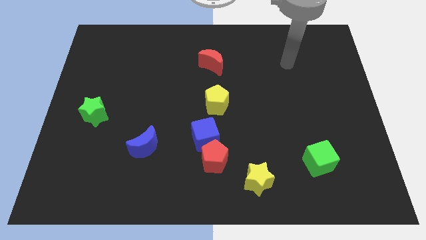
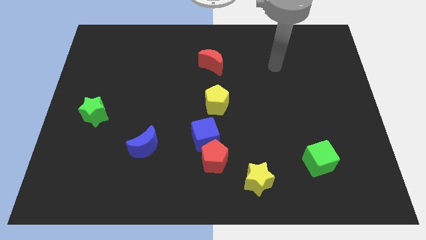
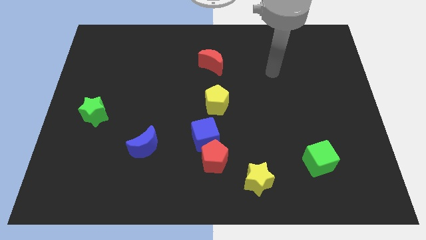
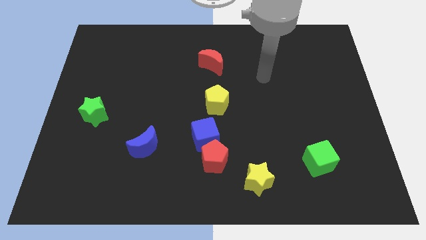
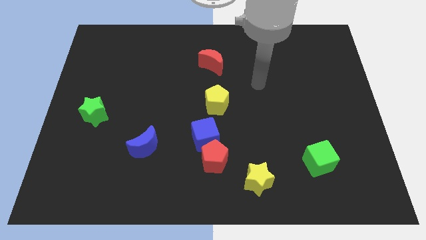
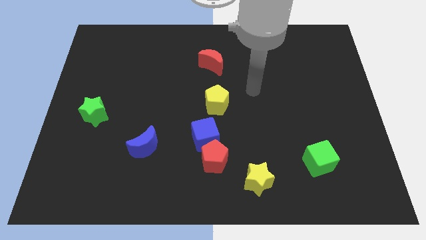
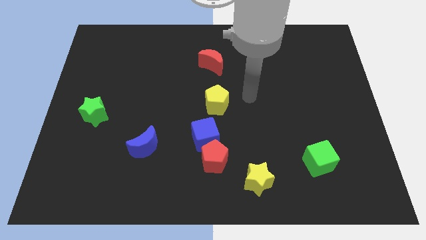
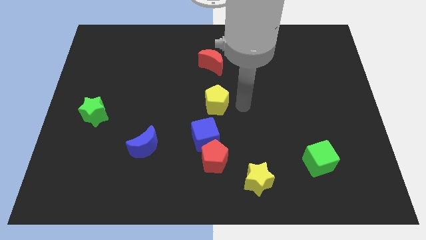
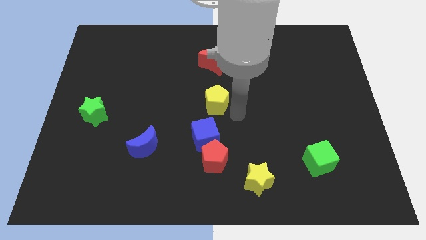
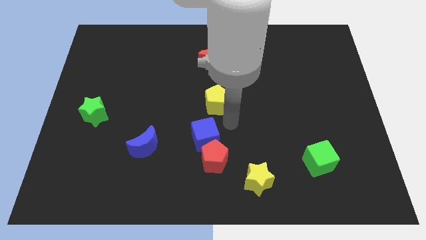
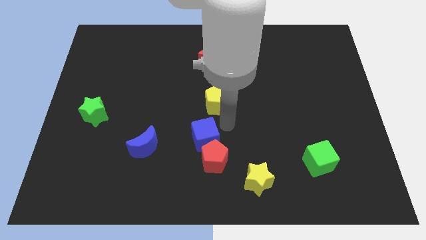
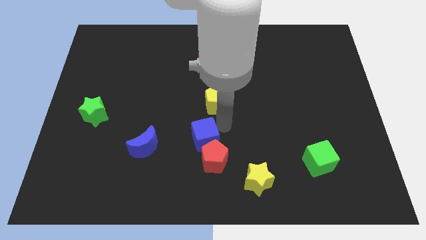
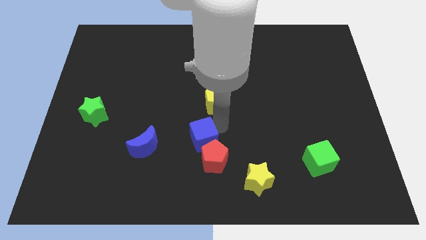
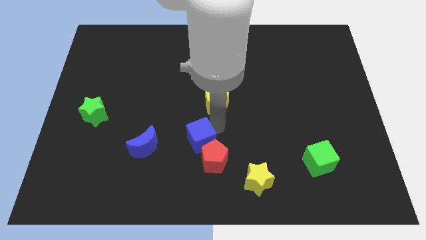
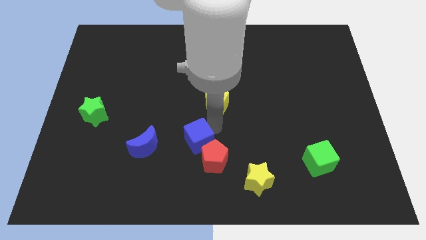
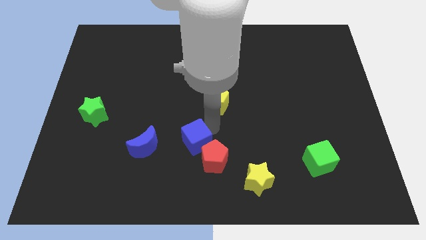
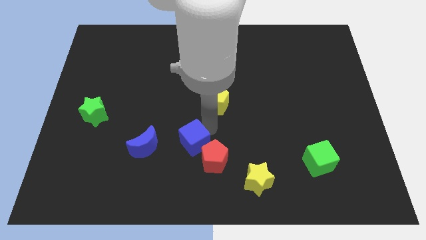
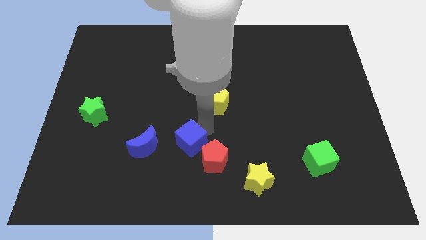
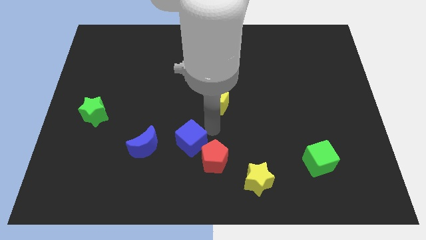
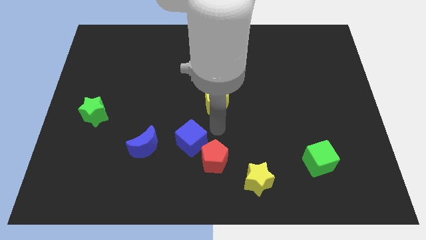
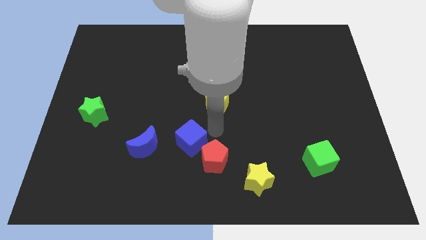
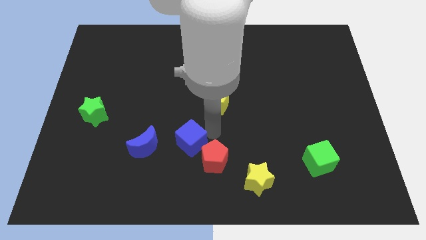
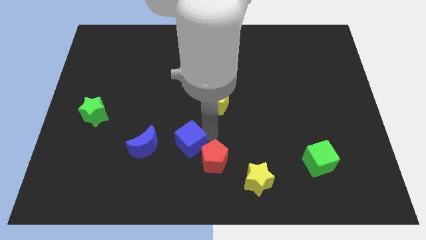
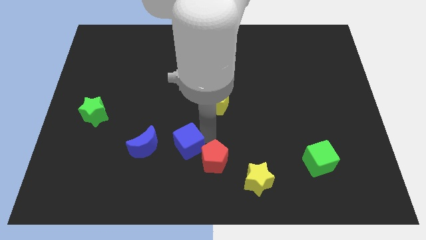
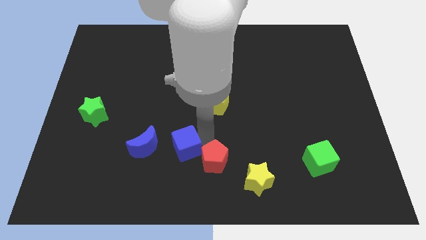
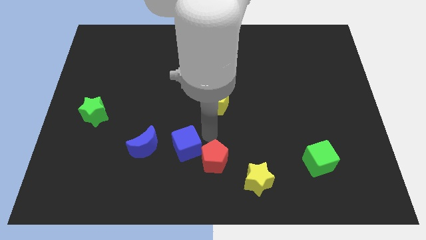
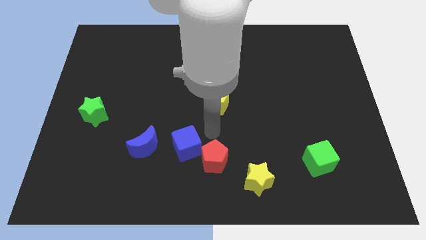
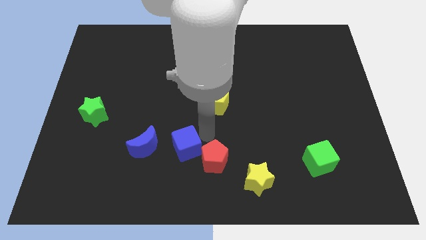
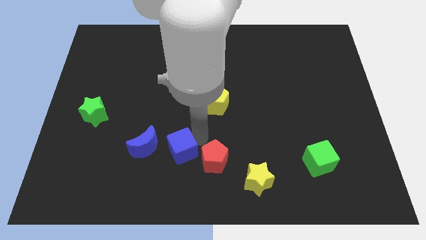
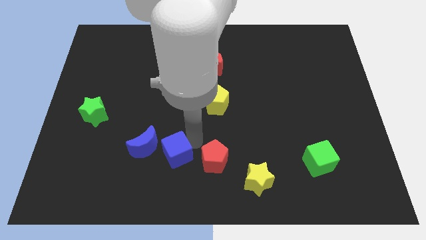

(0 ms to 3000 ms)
pull the blue cube apart from the red pentagon and yellow pentagon

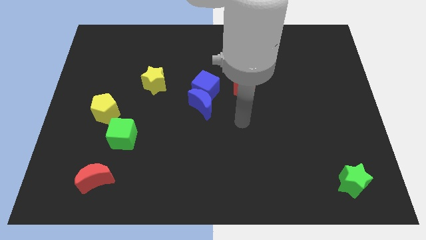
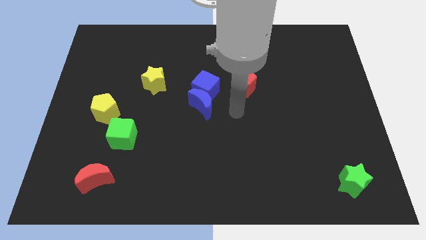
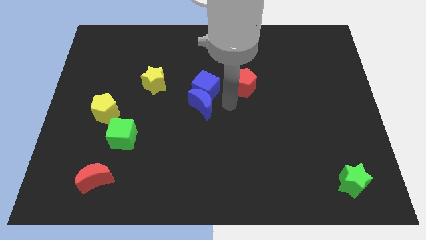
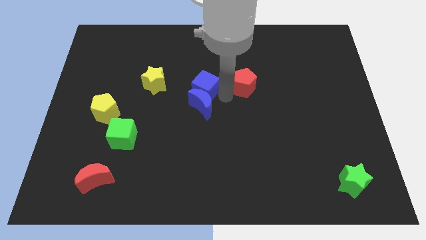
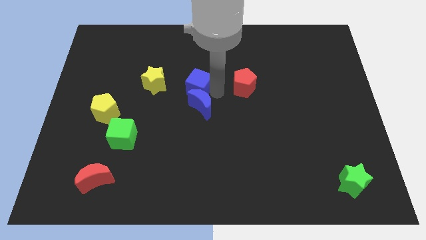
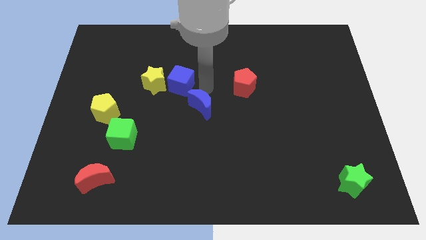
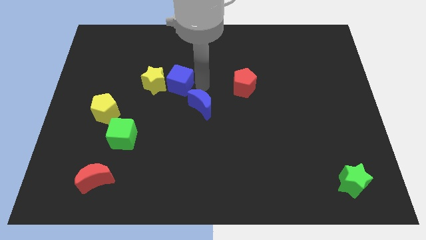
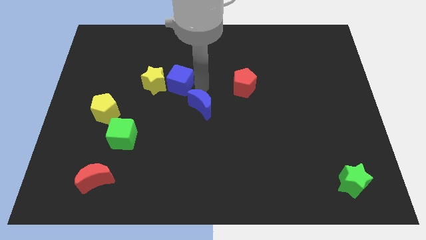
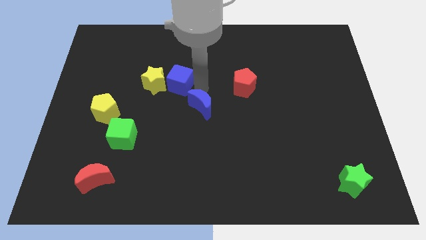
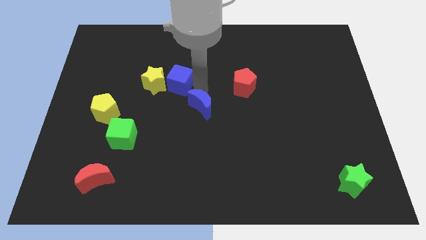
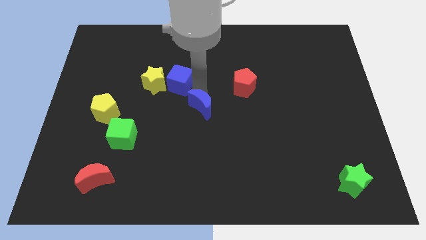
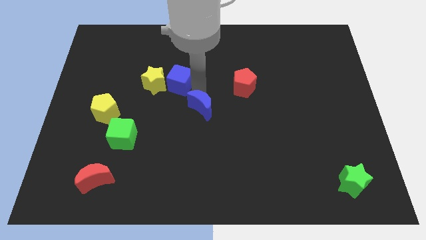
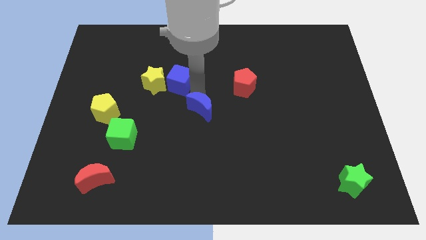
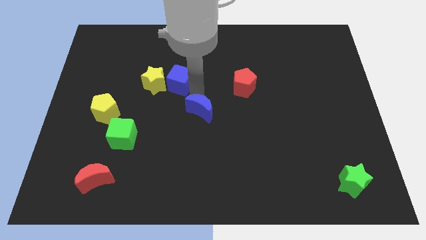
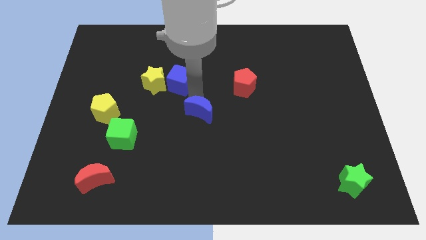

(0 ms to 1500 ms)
move the blue moon away from the blue cube

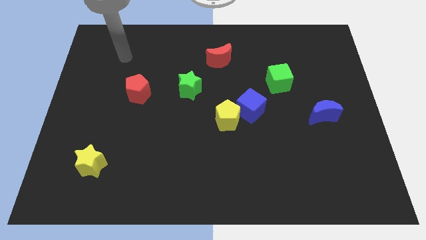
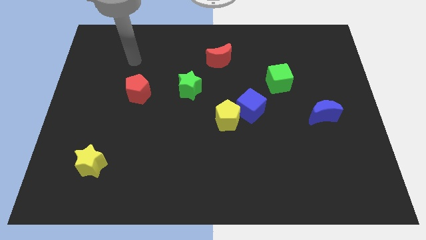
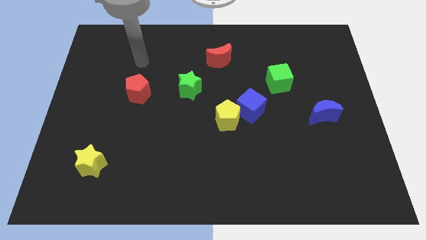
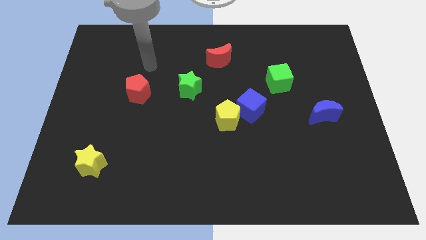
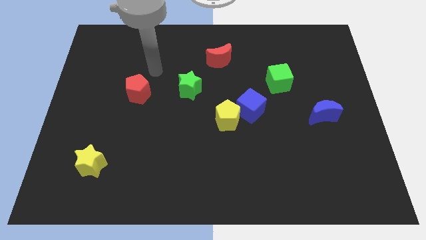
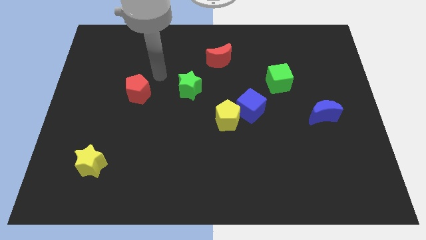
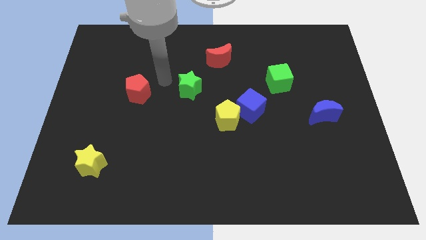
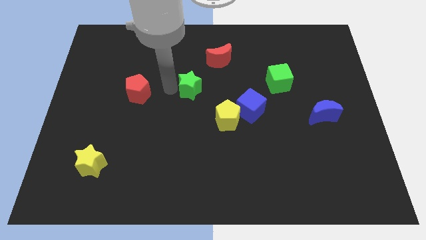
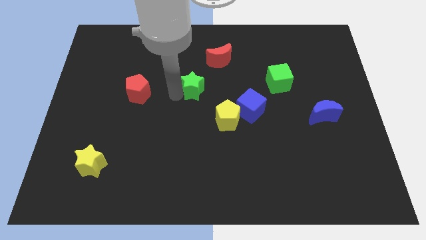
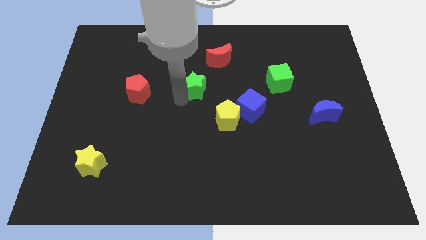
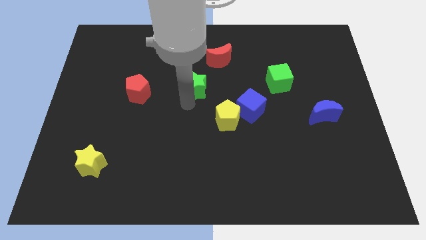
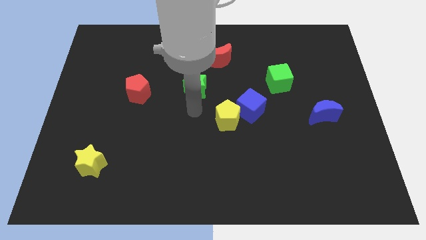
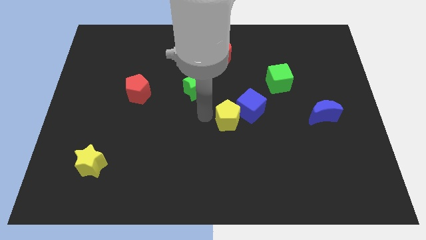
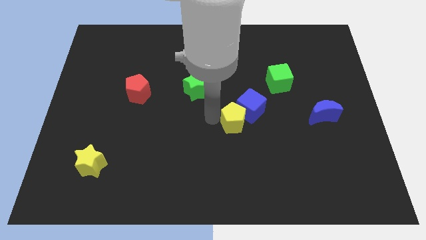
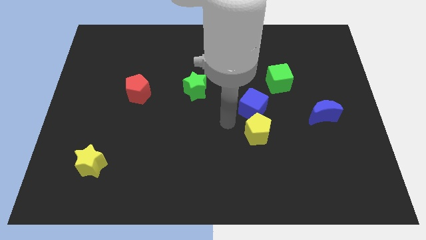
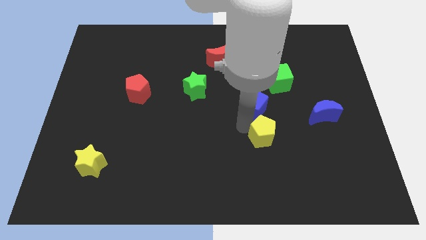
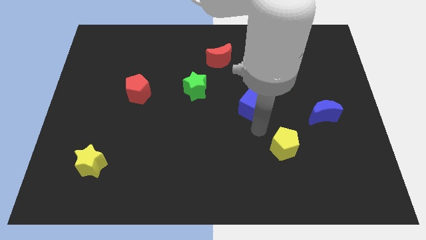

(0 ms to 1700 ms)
move the blue cube away from the yellow pentagon

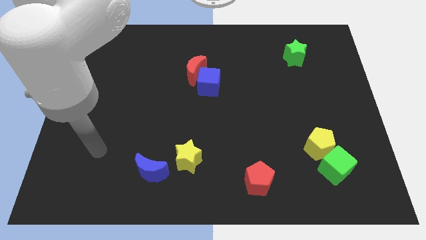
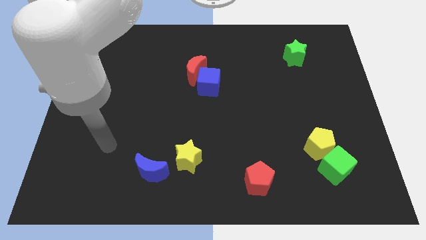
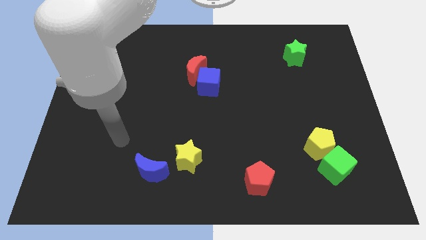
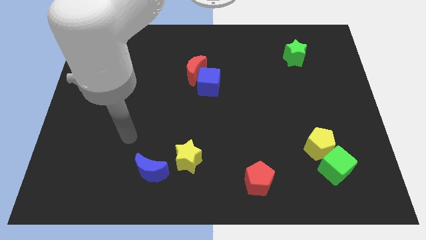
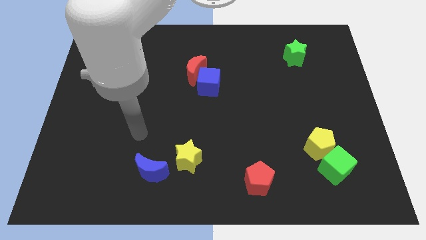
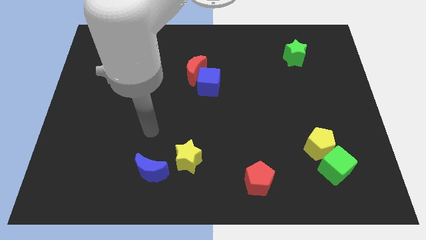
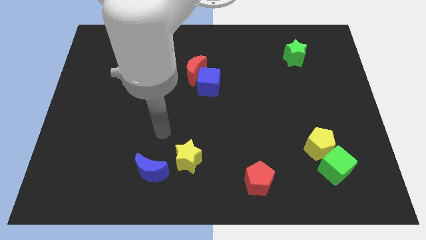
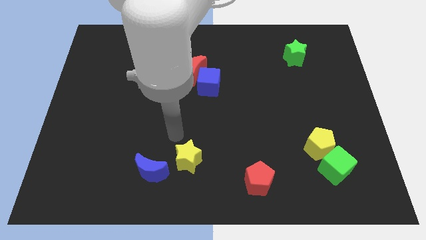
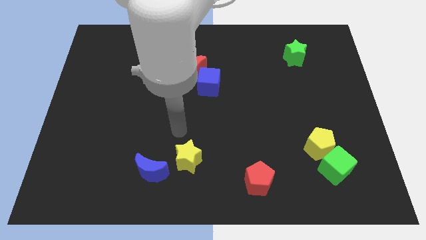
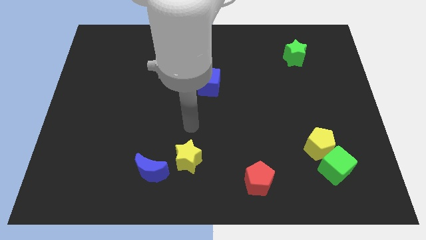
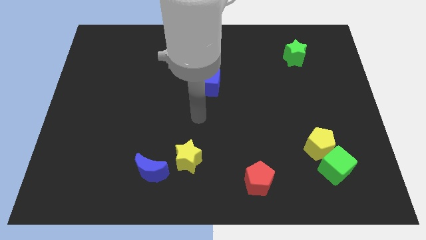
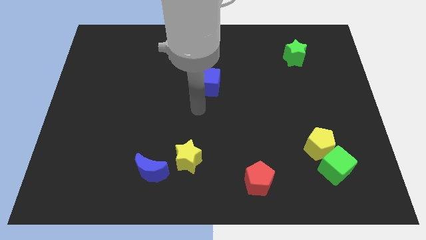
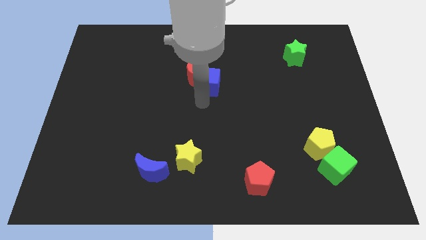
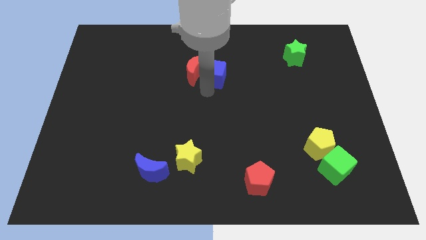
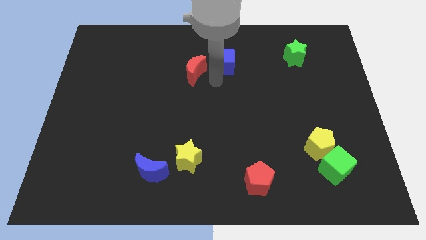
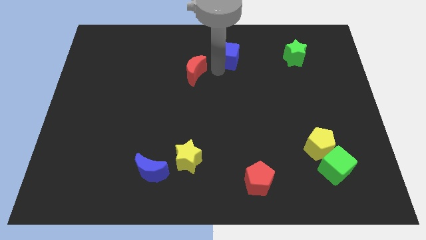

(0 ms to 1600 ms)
separate the red moon from the blue cube

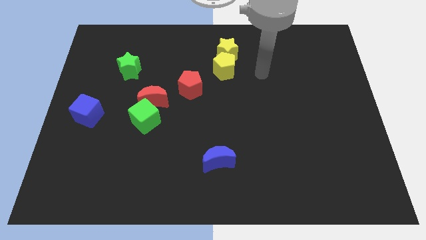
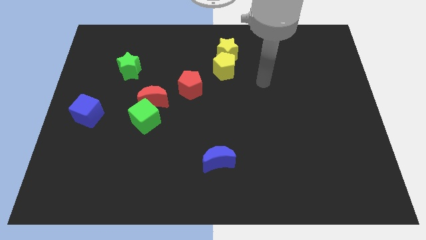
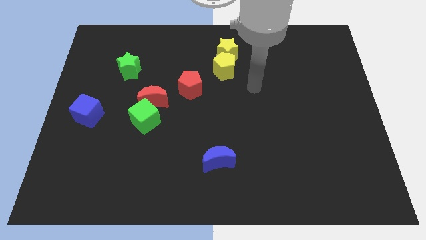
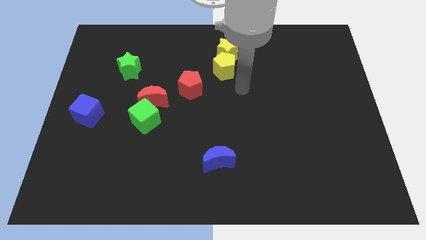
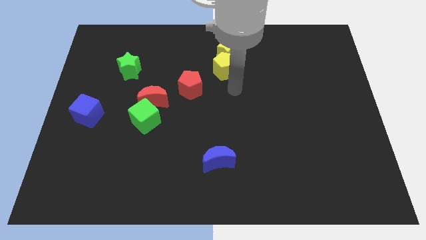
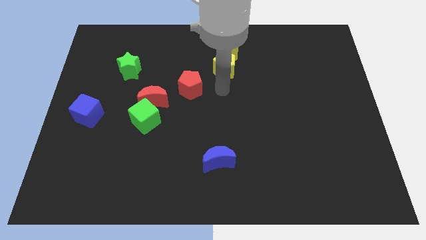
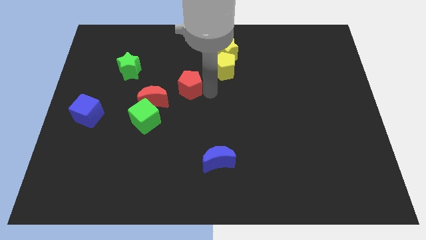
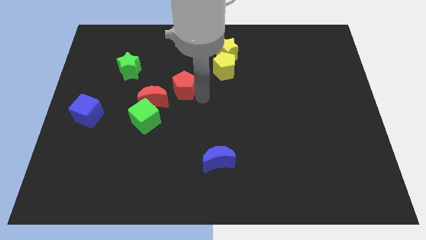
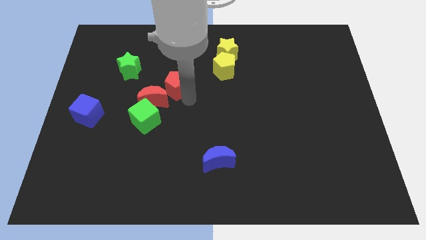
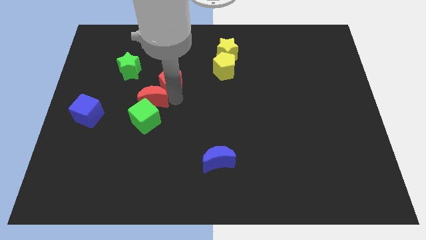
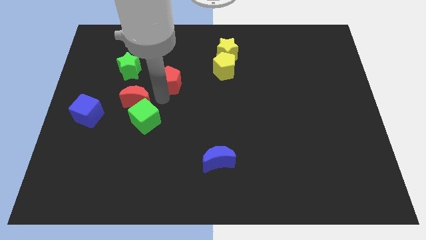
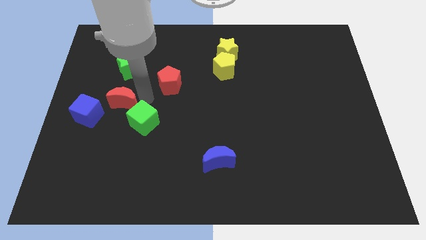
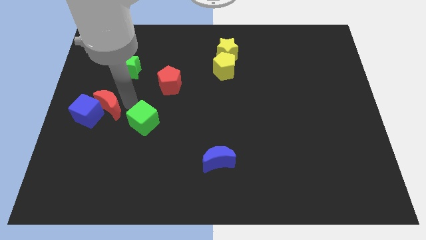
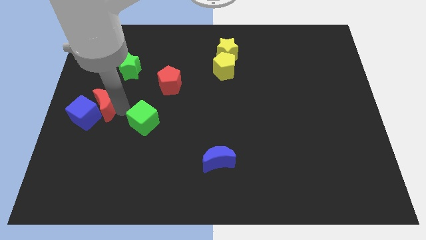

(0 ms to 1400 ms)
move the green cube away from the red moon

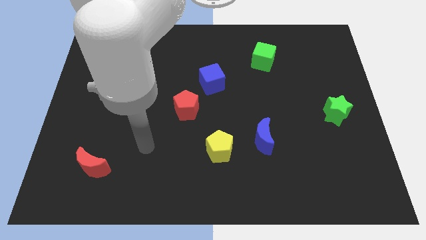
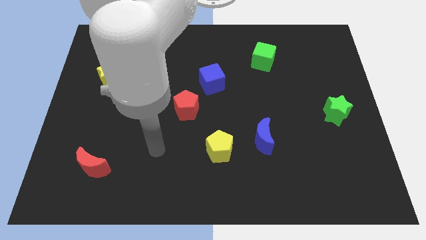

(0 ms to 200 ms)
move the blue moon away from the yellow pentagon
